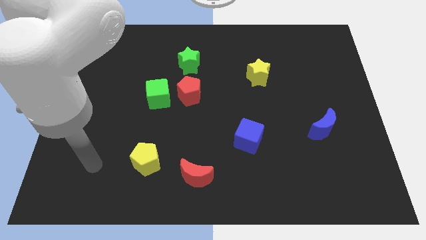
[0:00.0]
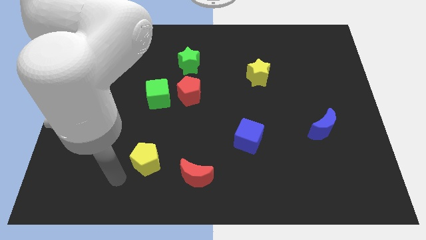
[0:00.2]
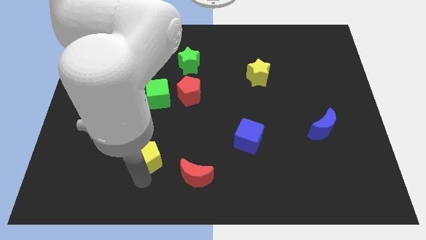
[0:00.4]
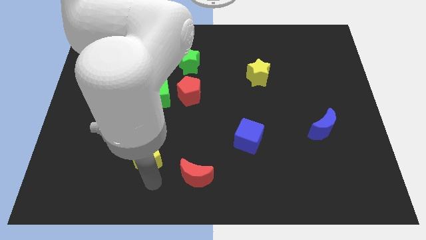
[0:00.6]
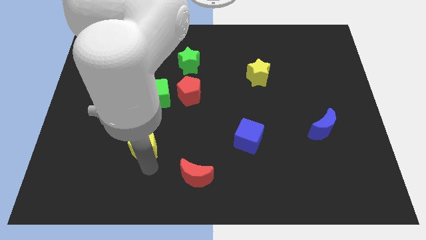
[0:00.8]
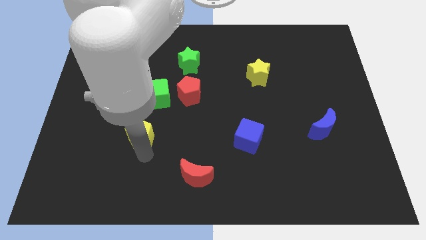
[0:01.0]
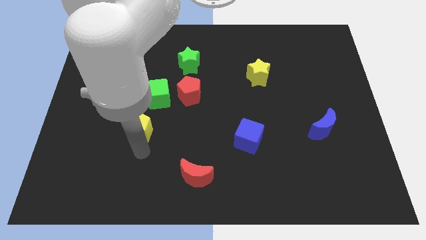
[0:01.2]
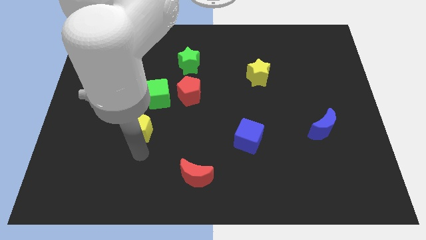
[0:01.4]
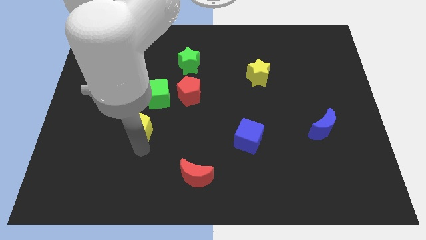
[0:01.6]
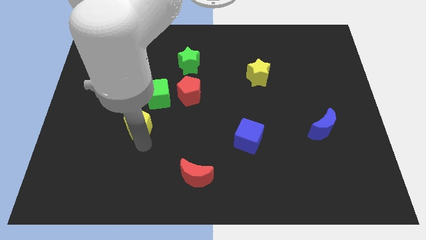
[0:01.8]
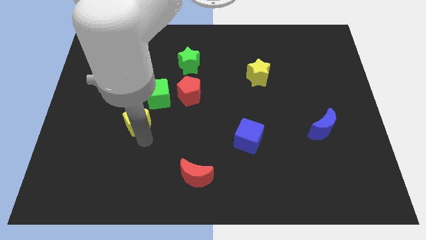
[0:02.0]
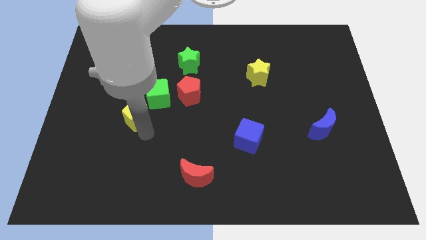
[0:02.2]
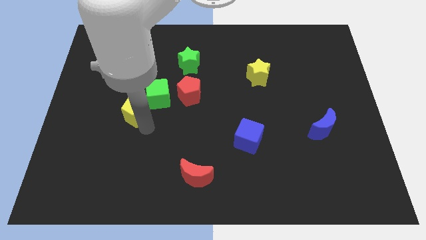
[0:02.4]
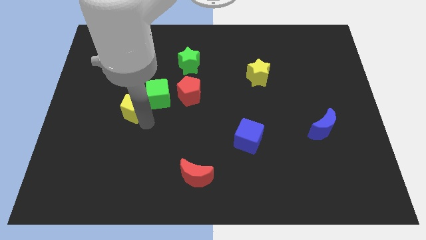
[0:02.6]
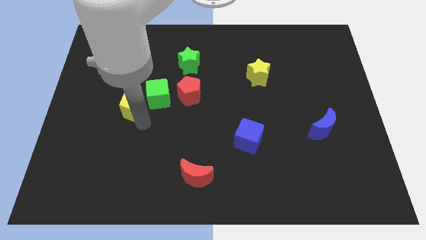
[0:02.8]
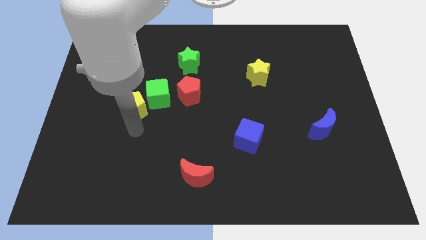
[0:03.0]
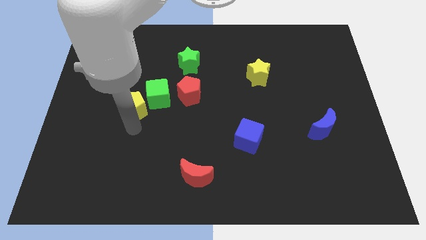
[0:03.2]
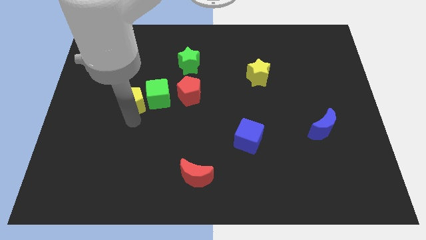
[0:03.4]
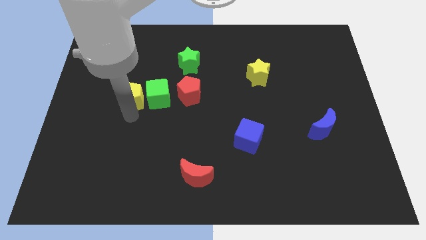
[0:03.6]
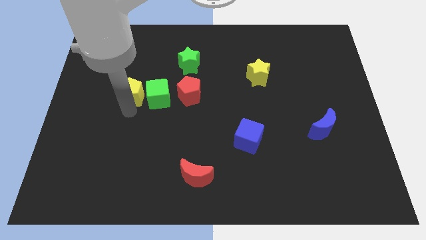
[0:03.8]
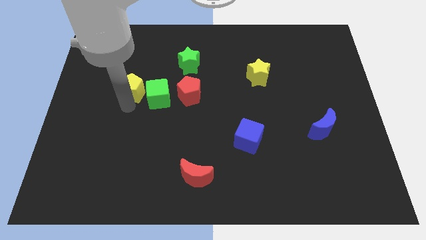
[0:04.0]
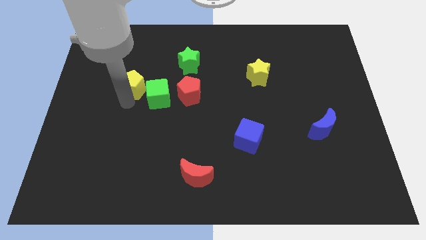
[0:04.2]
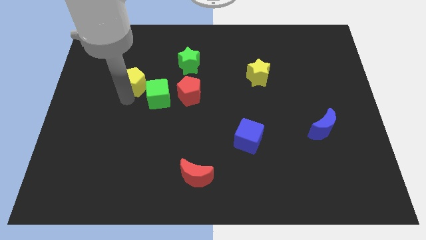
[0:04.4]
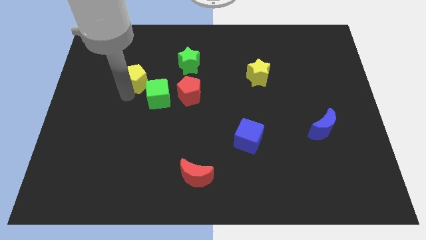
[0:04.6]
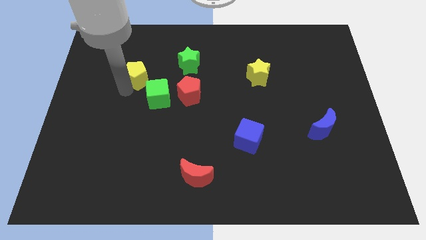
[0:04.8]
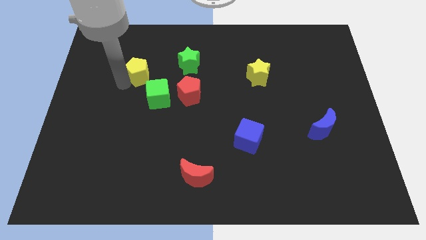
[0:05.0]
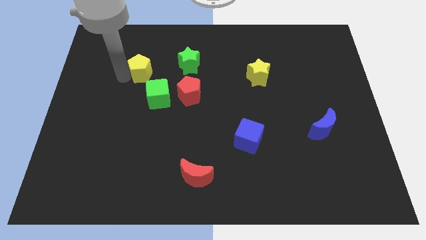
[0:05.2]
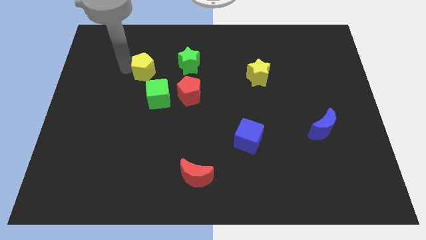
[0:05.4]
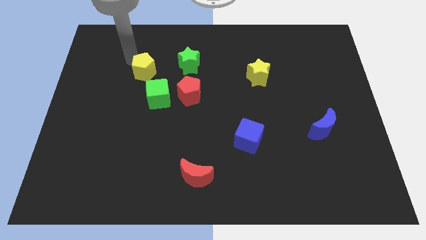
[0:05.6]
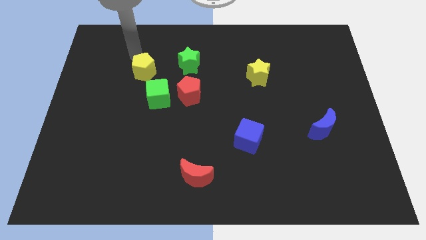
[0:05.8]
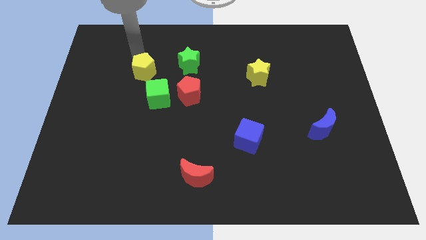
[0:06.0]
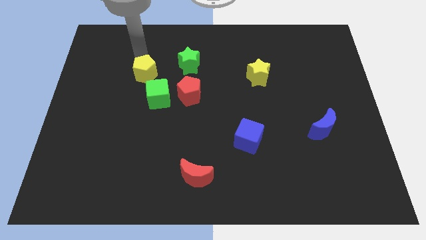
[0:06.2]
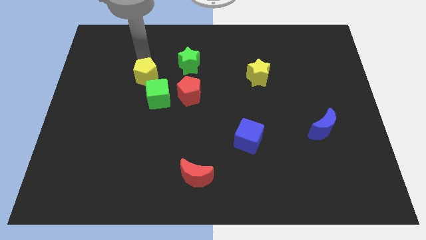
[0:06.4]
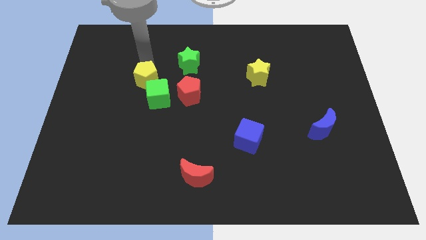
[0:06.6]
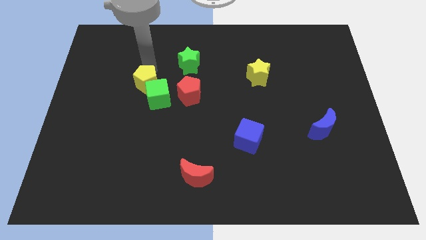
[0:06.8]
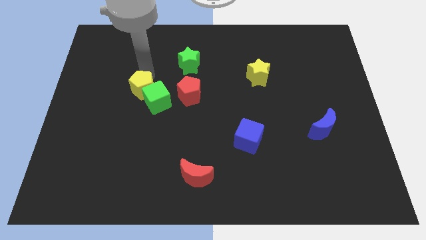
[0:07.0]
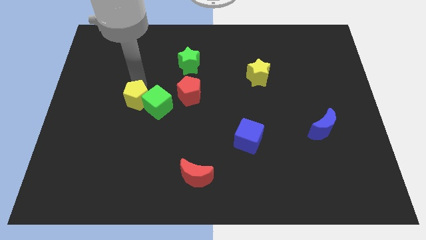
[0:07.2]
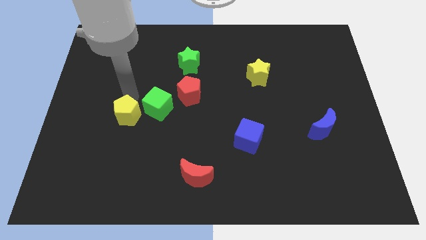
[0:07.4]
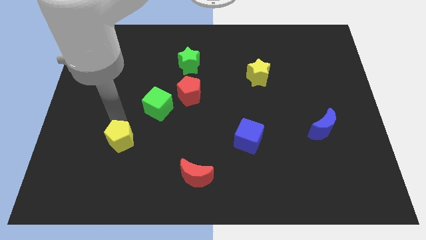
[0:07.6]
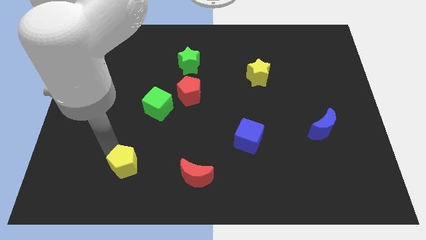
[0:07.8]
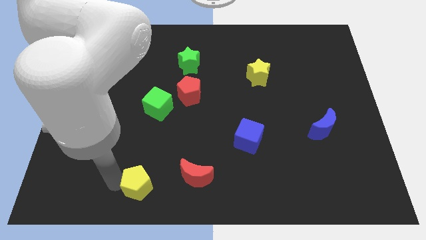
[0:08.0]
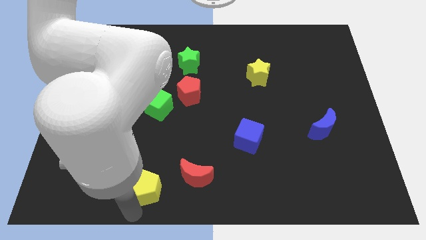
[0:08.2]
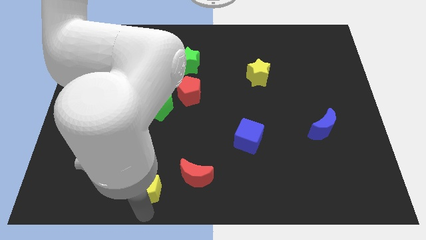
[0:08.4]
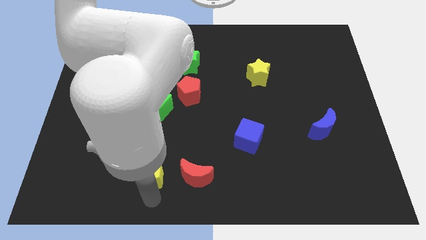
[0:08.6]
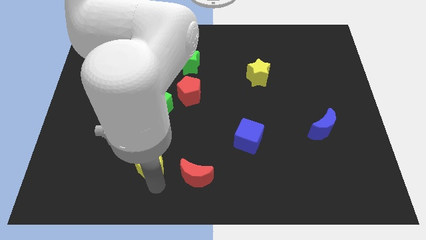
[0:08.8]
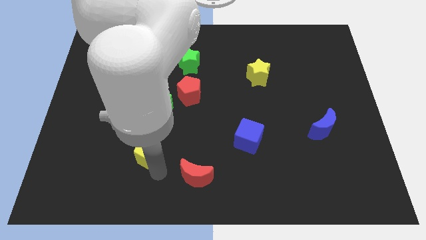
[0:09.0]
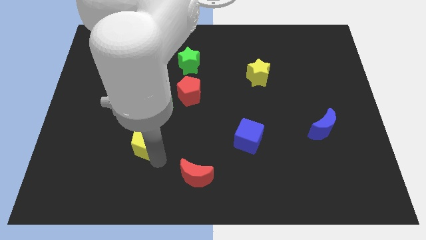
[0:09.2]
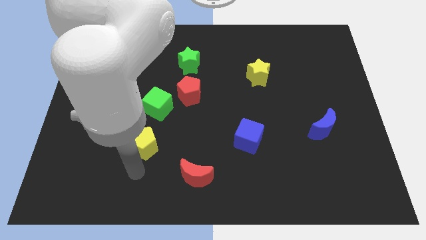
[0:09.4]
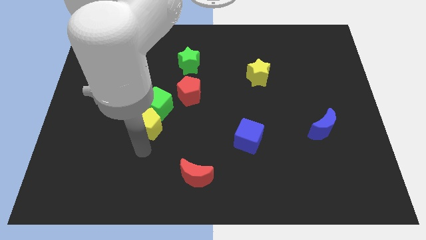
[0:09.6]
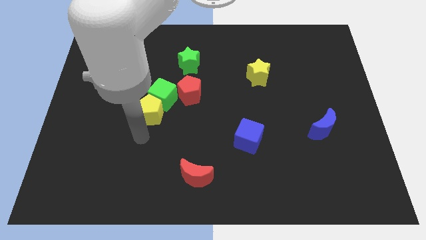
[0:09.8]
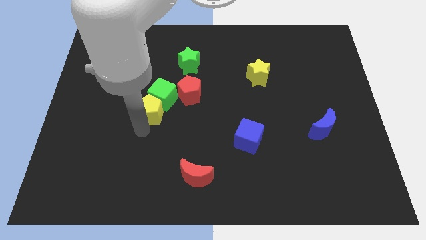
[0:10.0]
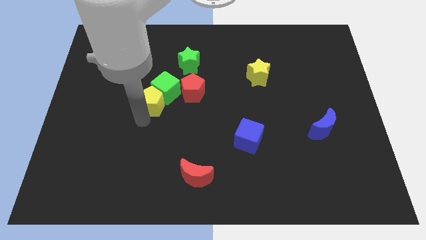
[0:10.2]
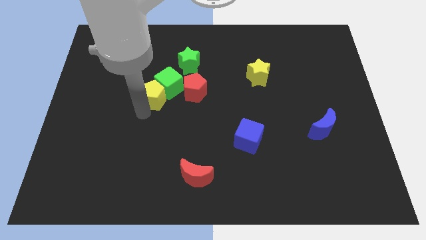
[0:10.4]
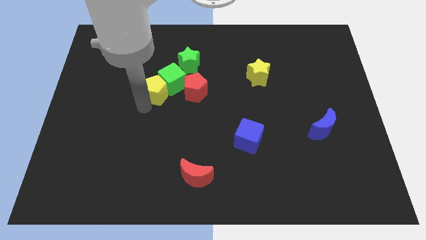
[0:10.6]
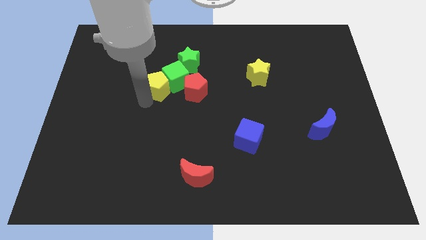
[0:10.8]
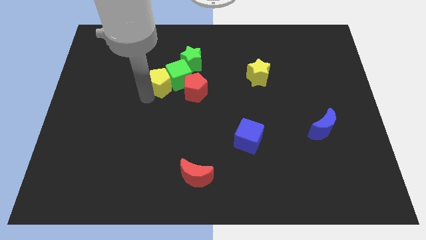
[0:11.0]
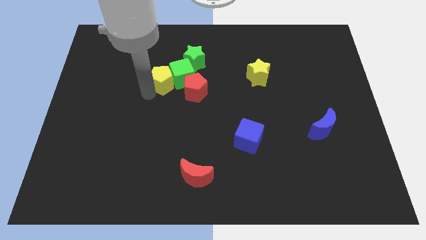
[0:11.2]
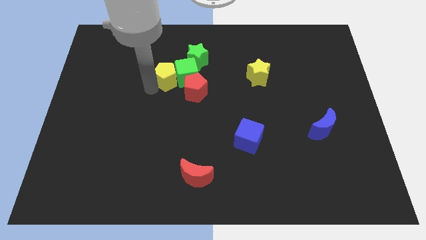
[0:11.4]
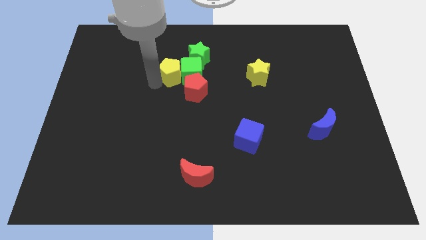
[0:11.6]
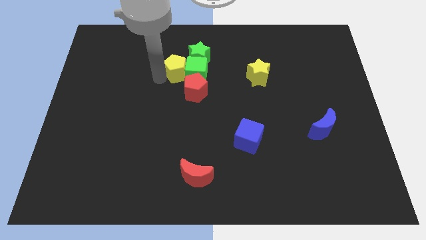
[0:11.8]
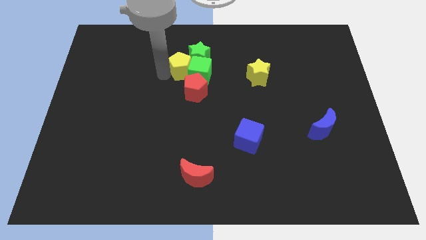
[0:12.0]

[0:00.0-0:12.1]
put the yellow pentagon to the green star
